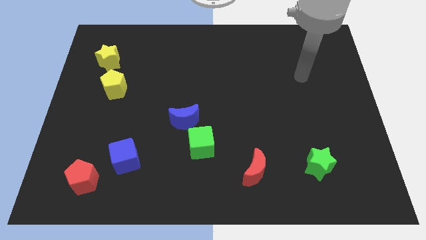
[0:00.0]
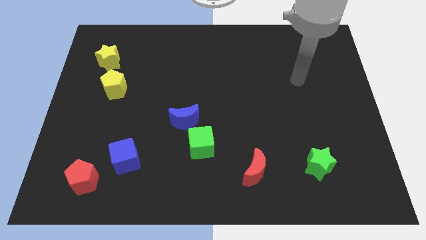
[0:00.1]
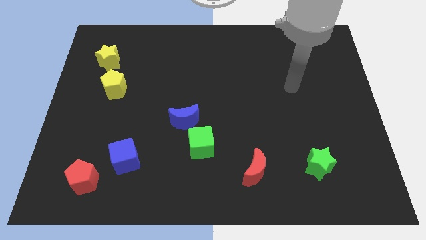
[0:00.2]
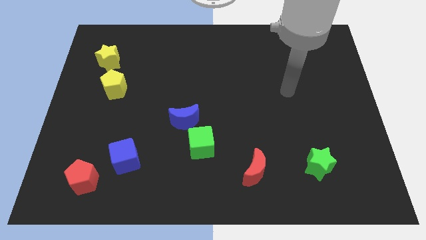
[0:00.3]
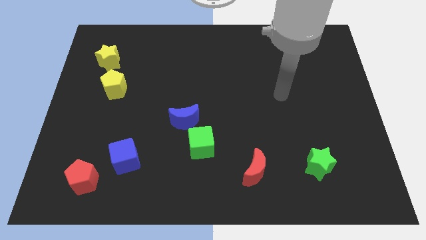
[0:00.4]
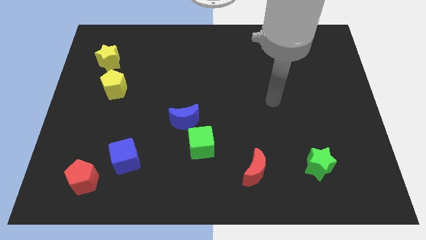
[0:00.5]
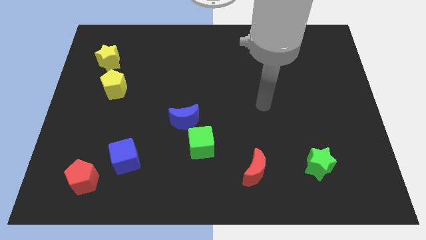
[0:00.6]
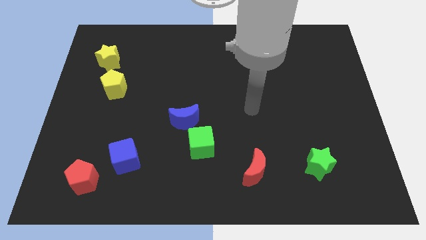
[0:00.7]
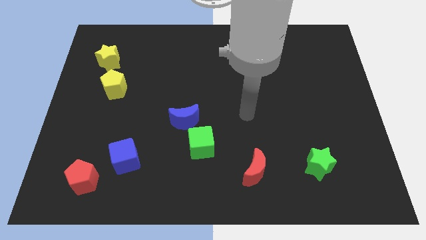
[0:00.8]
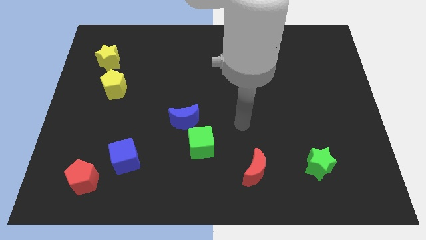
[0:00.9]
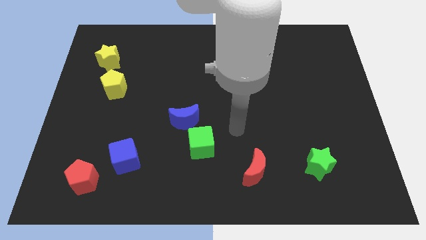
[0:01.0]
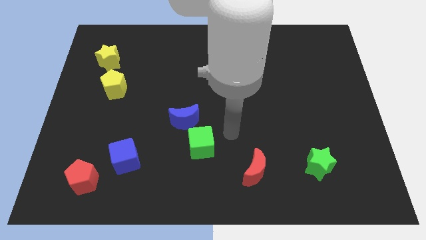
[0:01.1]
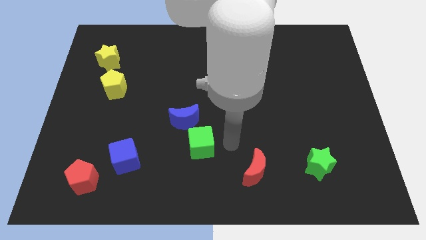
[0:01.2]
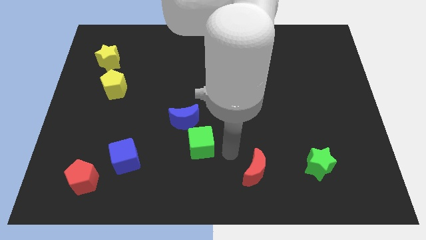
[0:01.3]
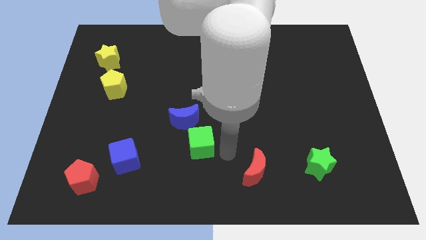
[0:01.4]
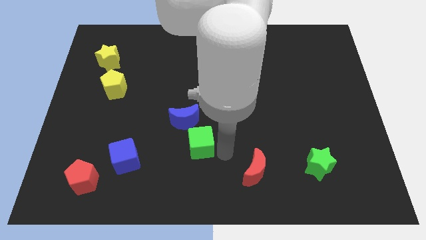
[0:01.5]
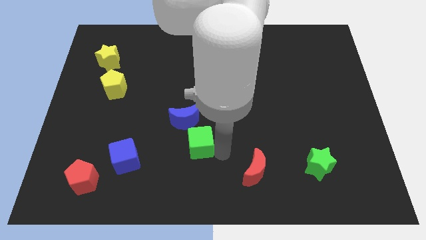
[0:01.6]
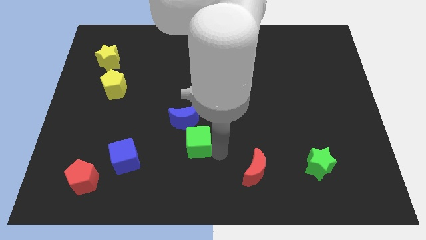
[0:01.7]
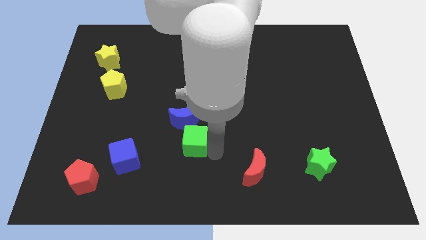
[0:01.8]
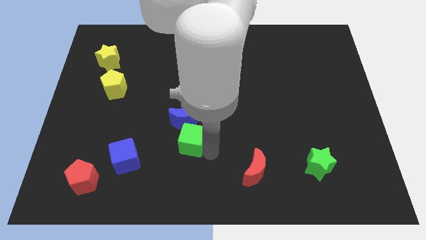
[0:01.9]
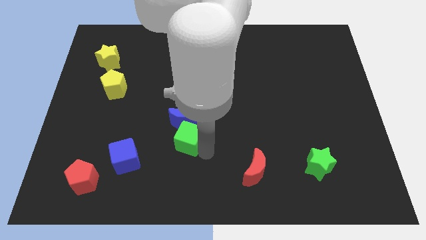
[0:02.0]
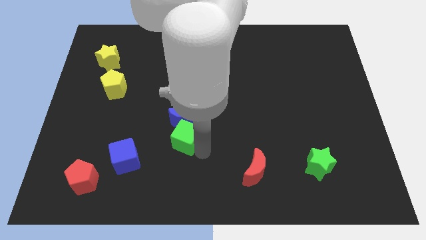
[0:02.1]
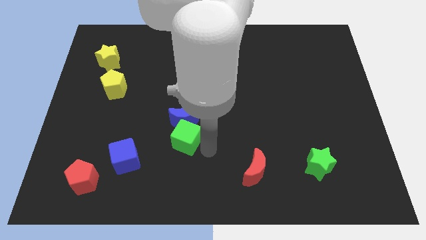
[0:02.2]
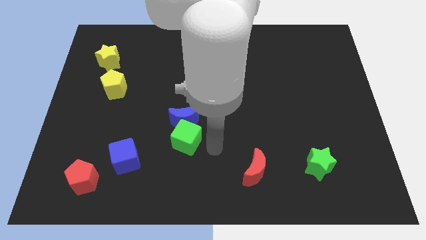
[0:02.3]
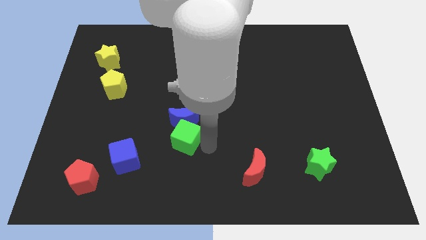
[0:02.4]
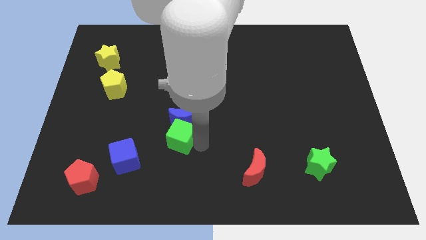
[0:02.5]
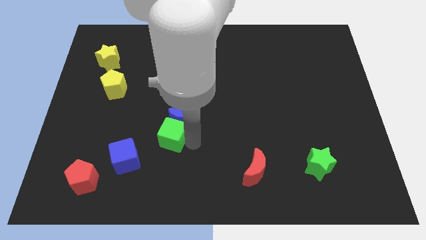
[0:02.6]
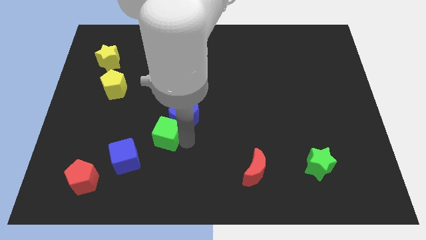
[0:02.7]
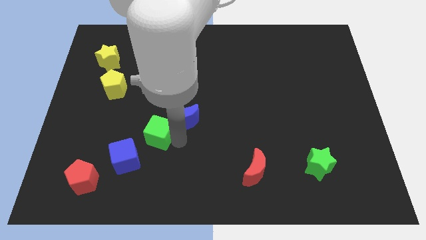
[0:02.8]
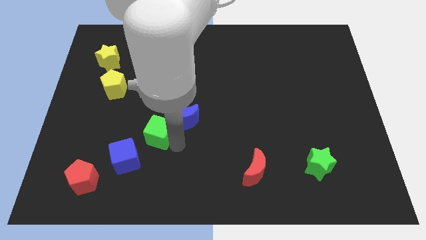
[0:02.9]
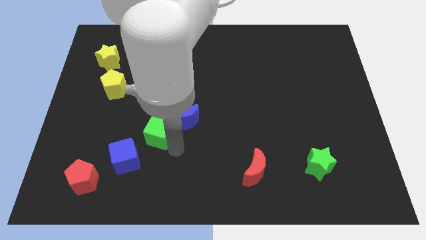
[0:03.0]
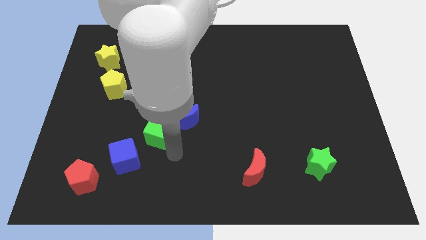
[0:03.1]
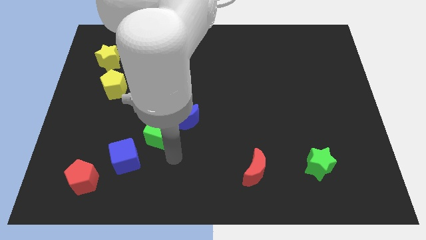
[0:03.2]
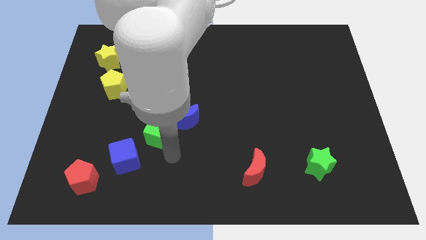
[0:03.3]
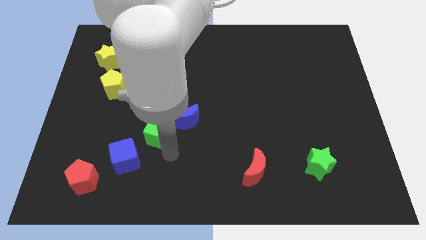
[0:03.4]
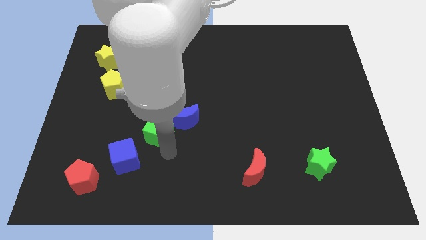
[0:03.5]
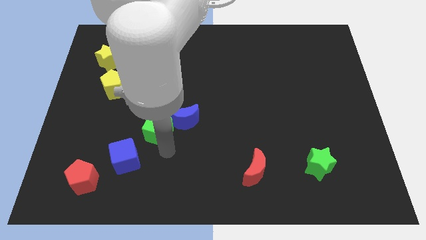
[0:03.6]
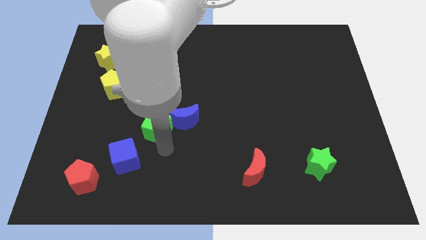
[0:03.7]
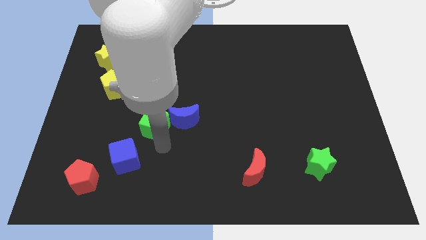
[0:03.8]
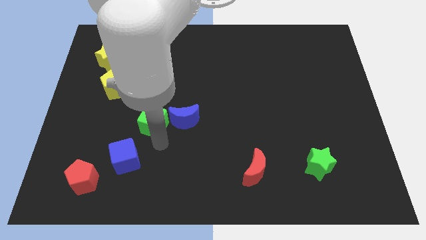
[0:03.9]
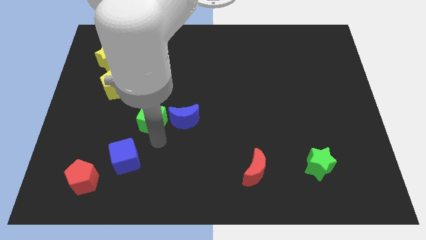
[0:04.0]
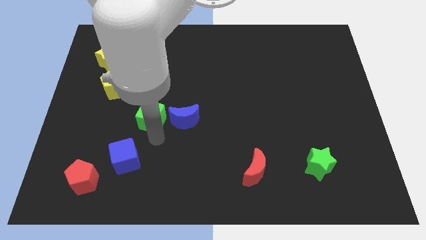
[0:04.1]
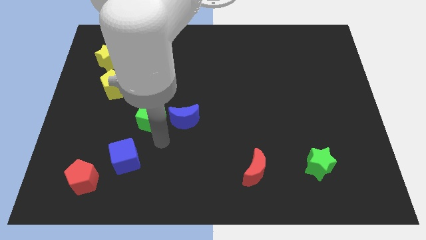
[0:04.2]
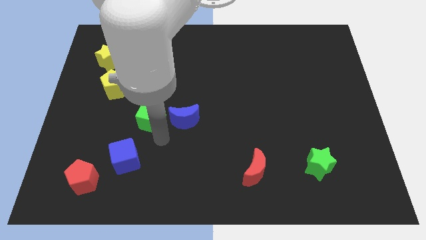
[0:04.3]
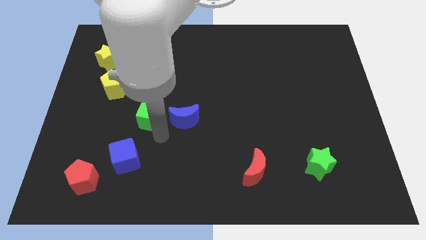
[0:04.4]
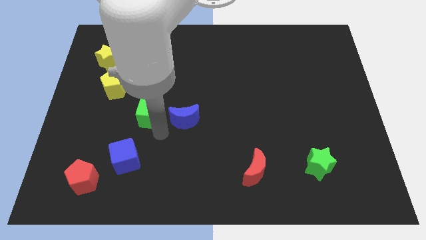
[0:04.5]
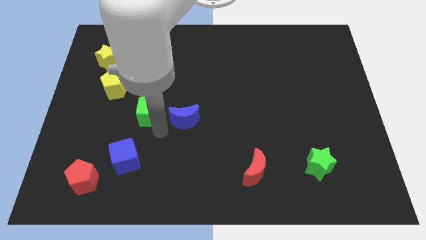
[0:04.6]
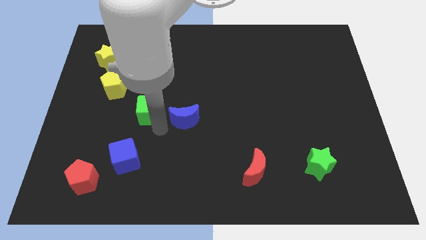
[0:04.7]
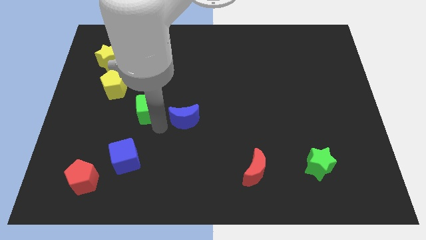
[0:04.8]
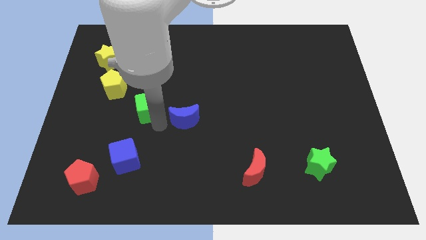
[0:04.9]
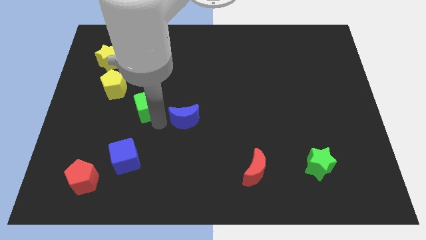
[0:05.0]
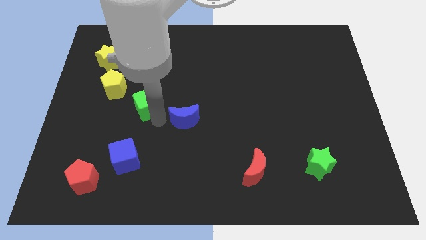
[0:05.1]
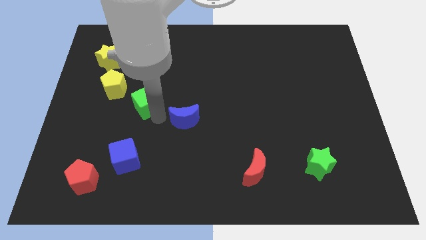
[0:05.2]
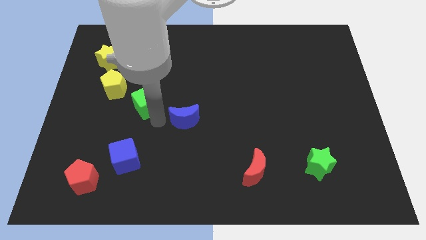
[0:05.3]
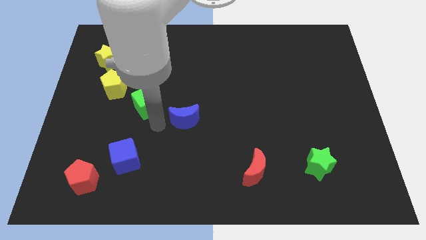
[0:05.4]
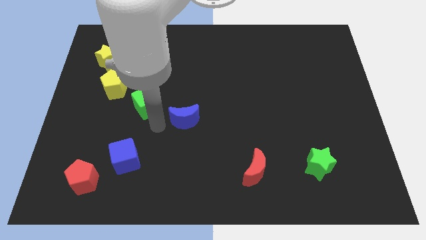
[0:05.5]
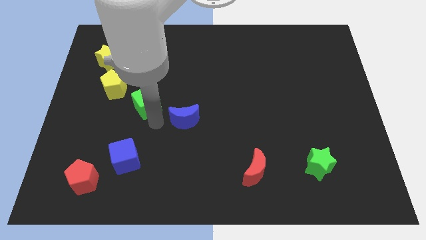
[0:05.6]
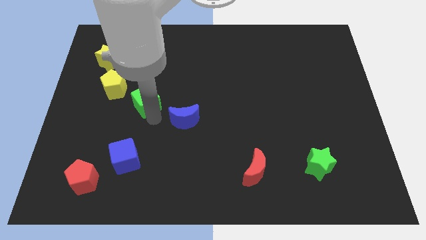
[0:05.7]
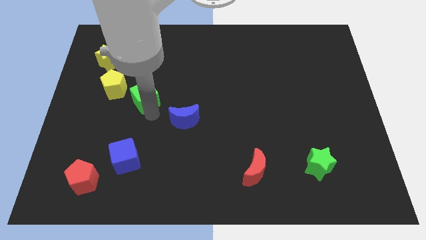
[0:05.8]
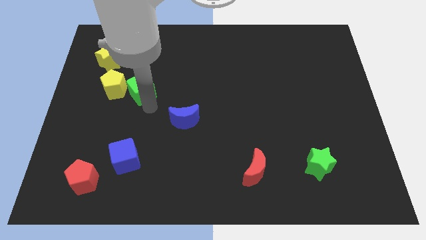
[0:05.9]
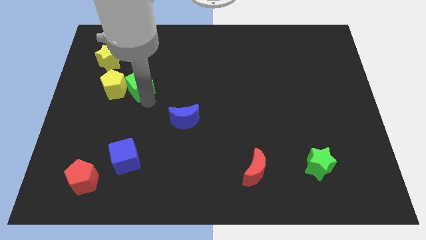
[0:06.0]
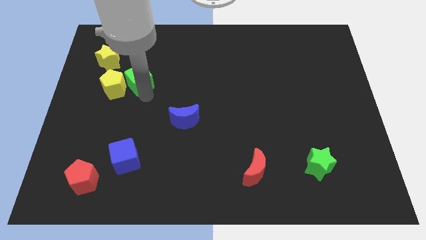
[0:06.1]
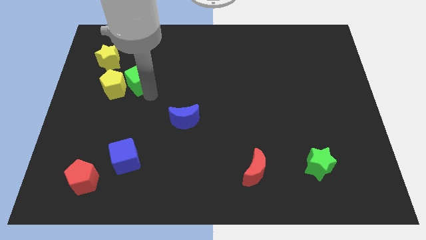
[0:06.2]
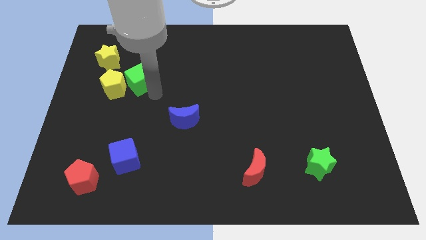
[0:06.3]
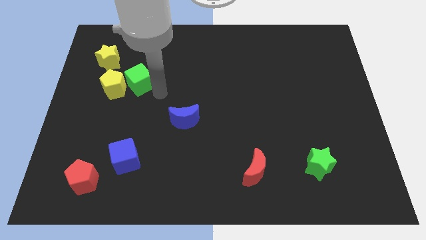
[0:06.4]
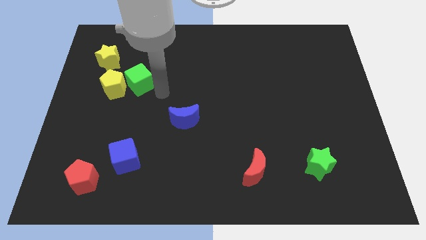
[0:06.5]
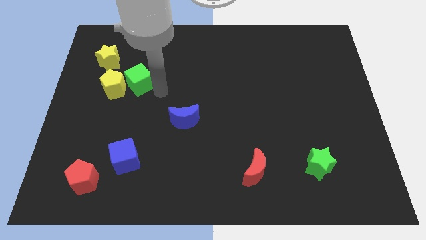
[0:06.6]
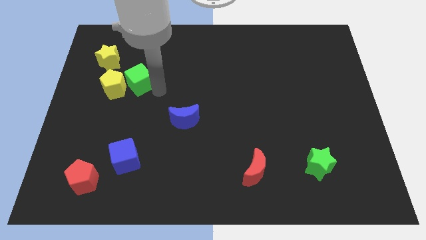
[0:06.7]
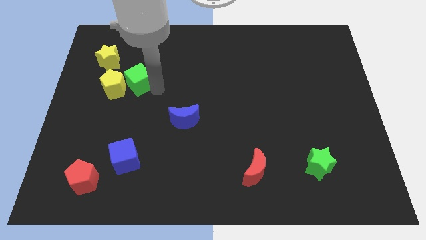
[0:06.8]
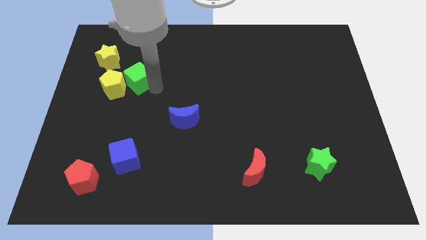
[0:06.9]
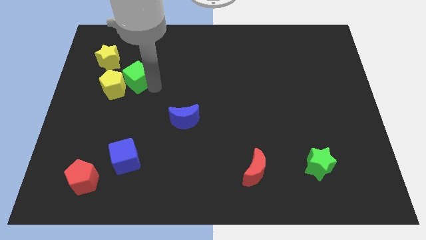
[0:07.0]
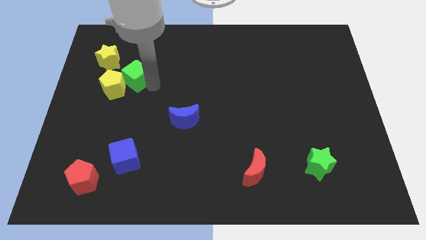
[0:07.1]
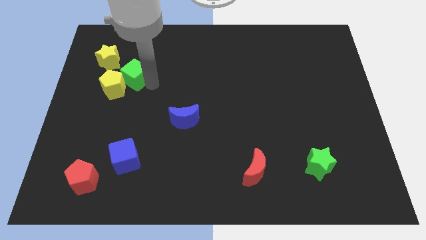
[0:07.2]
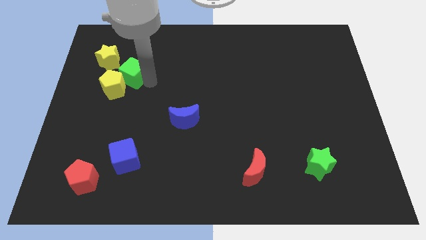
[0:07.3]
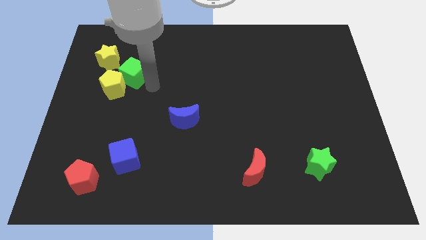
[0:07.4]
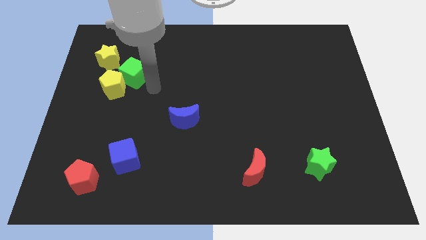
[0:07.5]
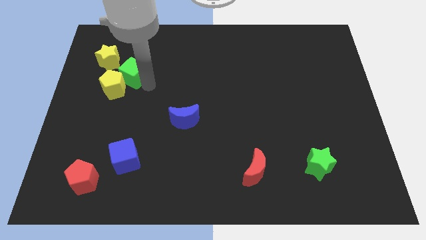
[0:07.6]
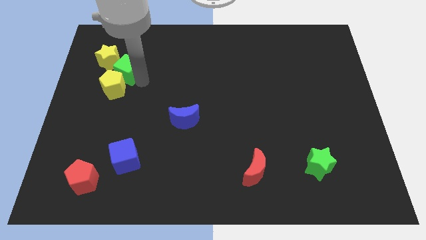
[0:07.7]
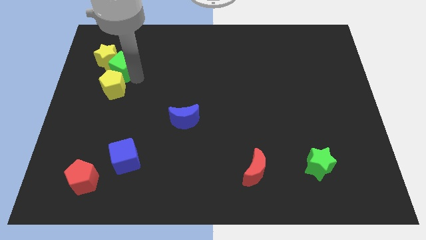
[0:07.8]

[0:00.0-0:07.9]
move the green cube close to the yellow star
